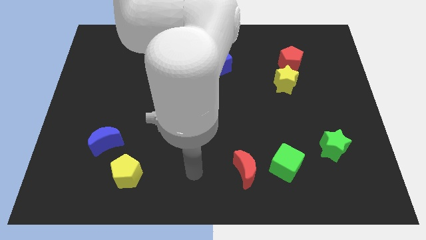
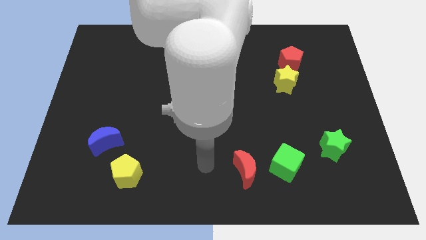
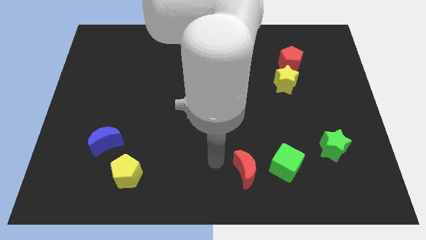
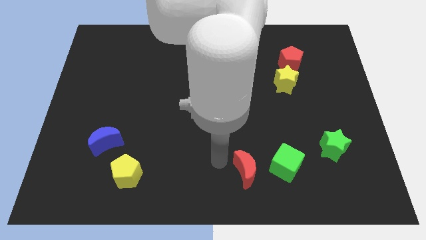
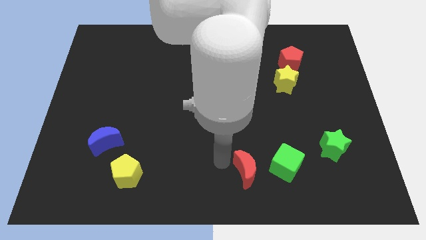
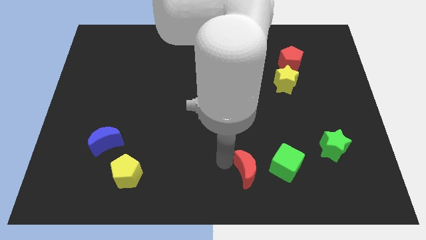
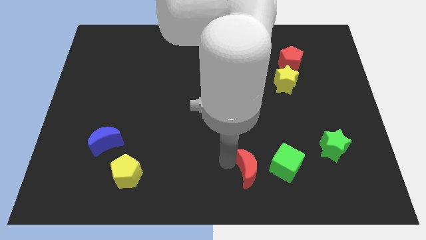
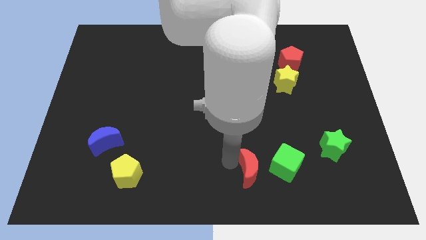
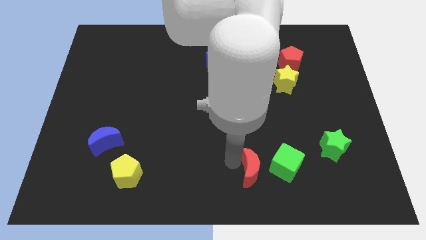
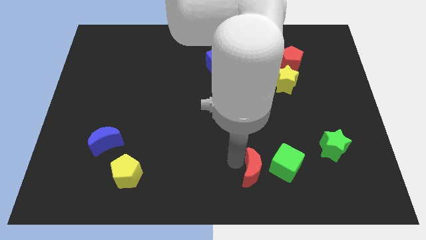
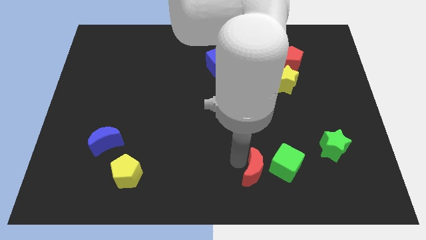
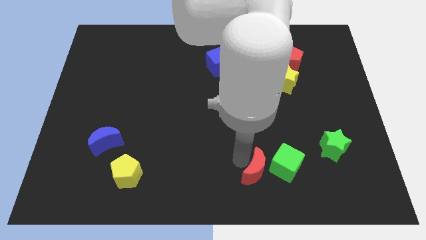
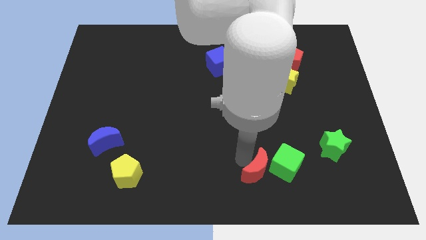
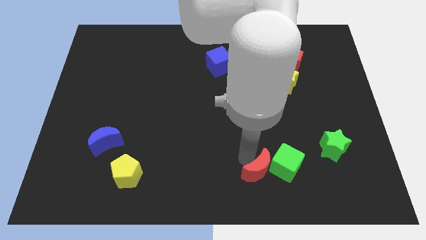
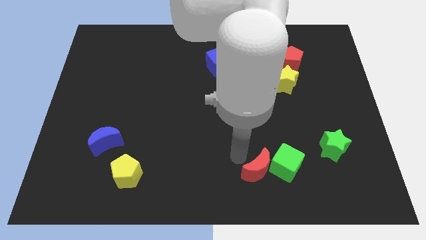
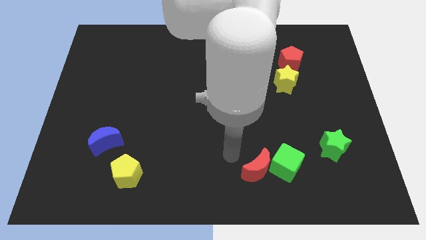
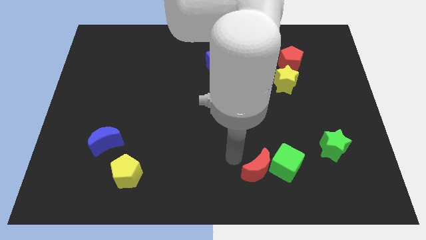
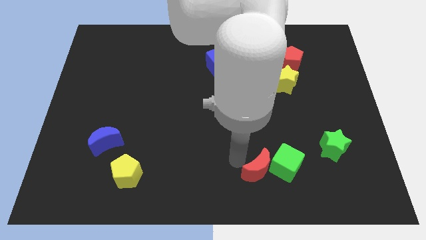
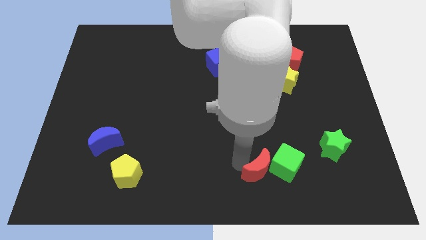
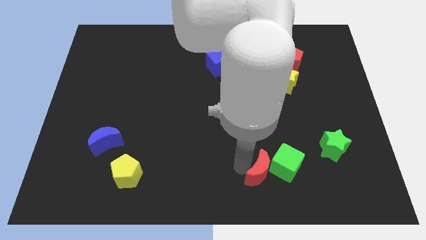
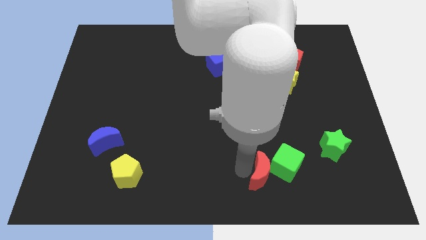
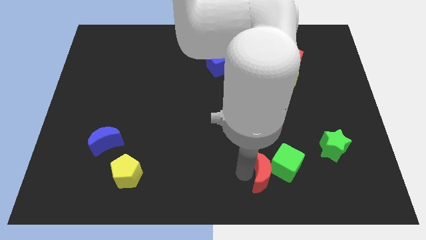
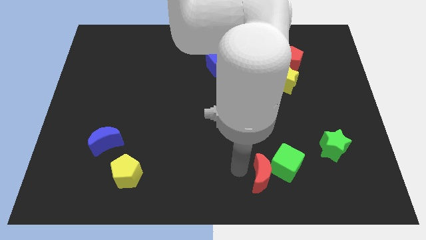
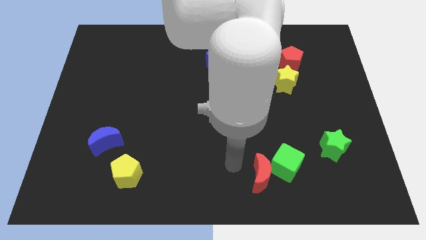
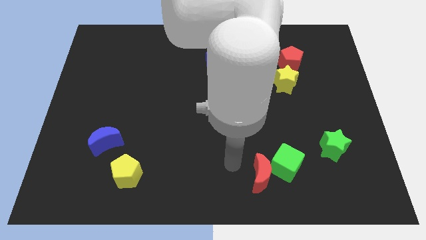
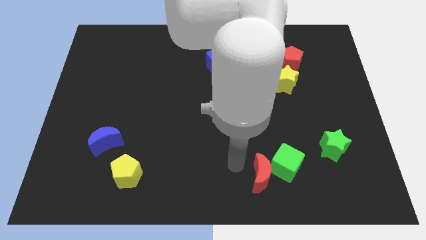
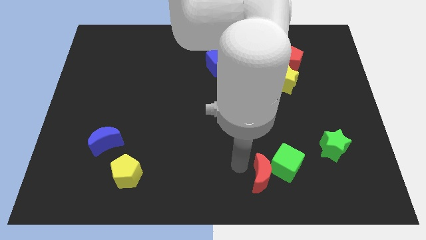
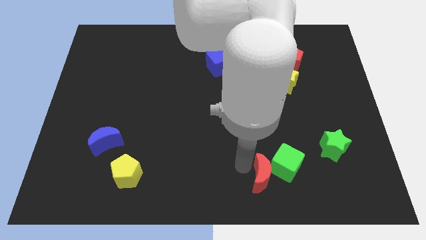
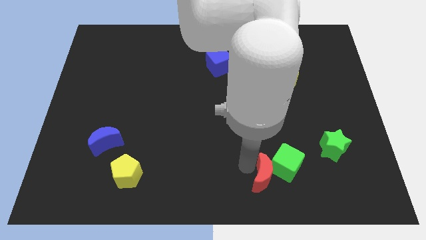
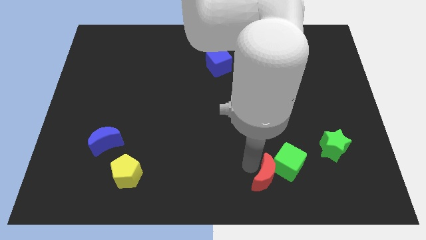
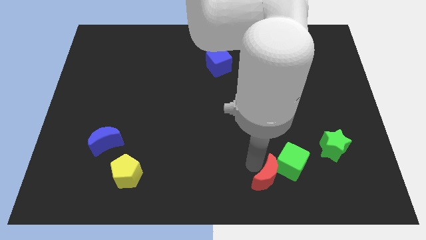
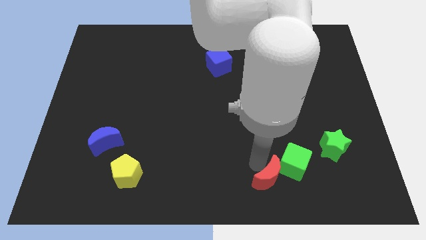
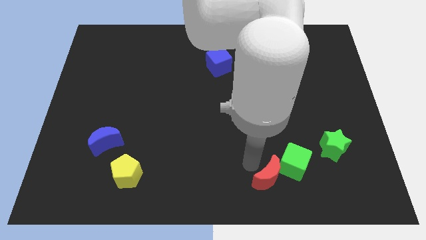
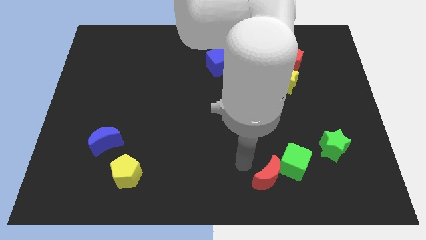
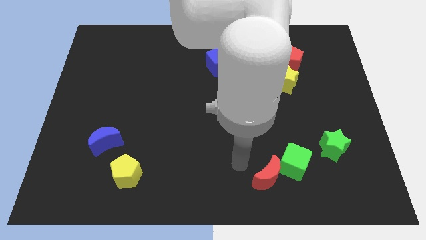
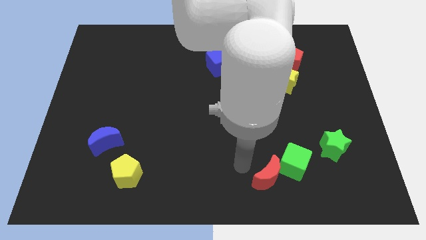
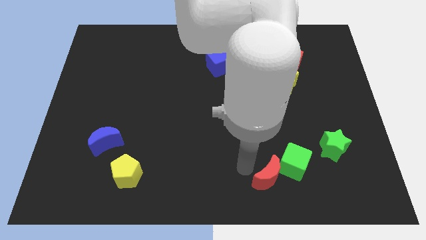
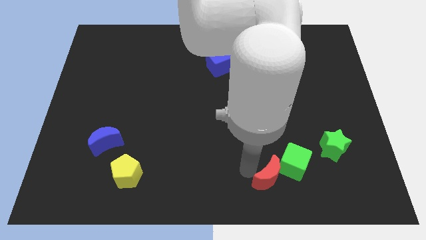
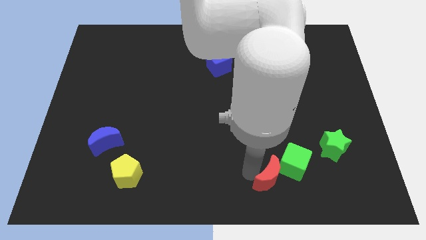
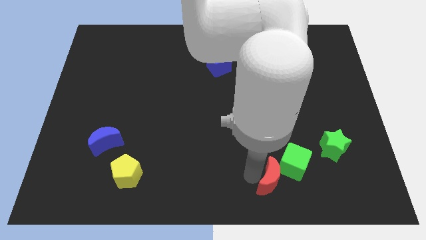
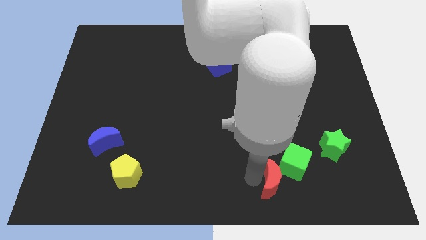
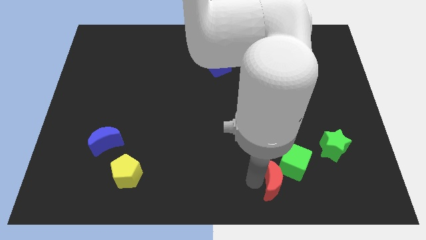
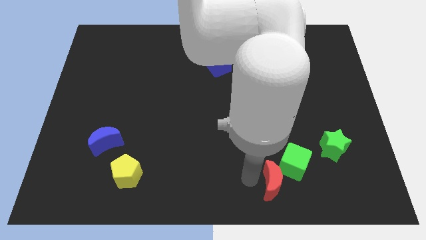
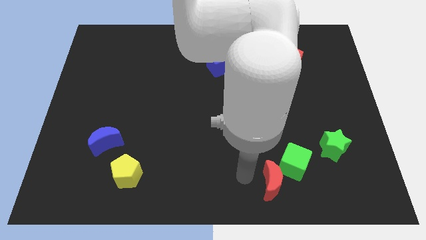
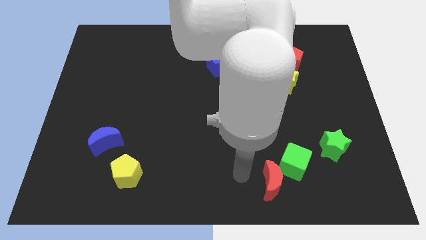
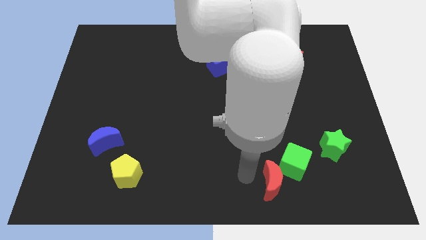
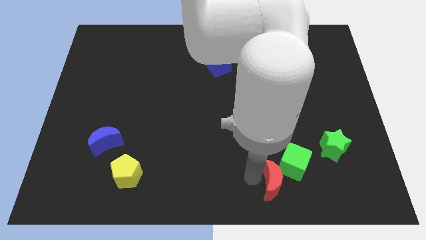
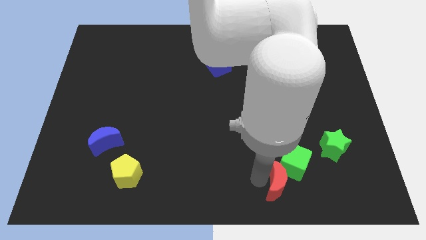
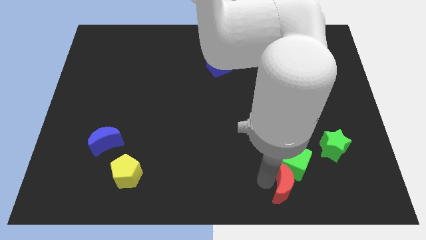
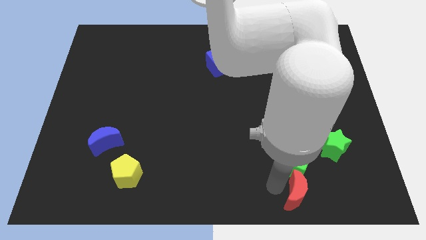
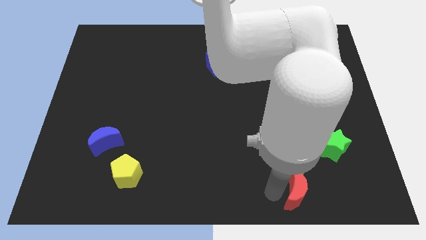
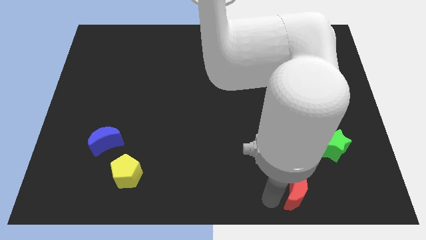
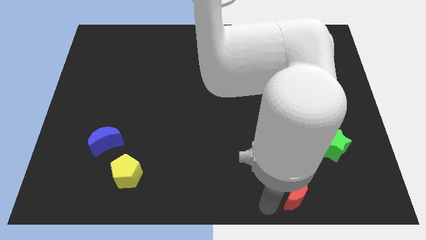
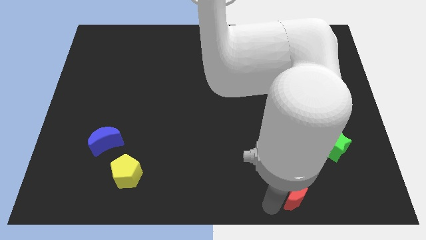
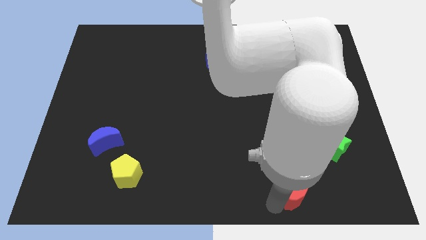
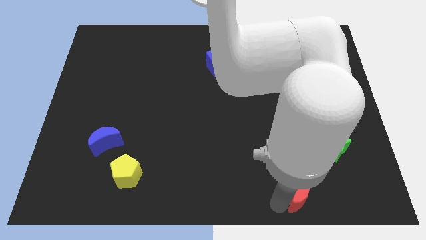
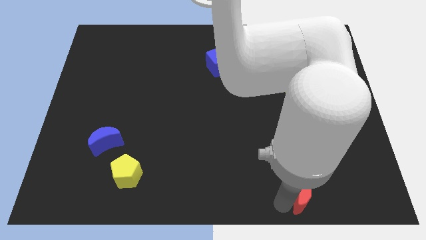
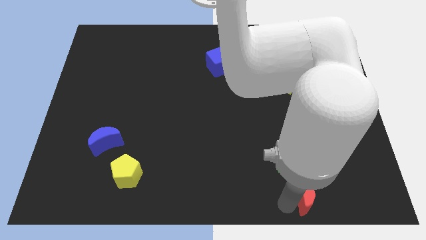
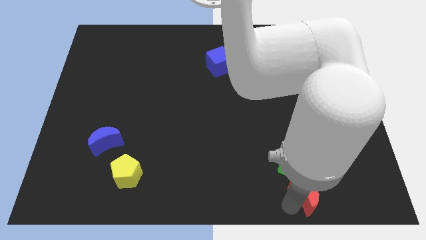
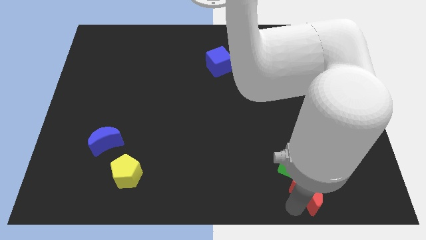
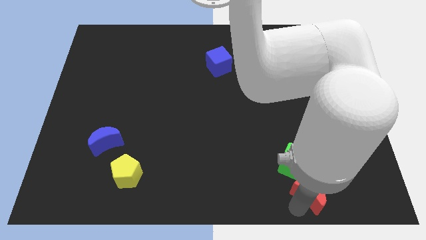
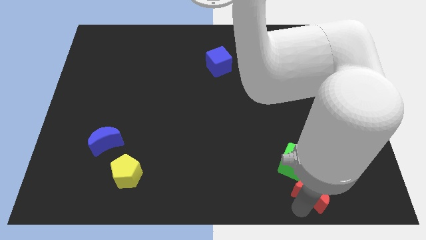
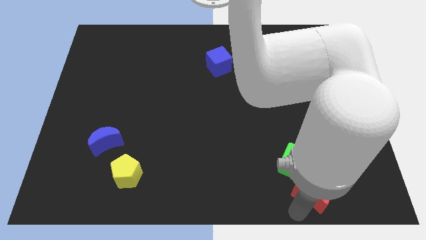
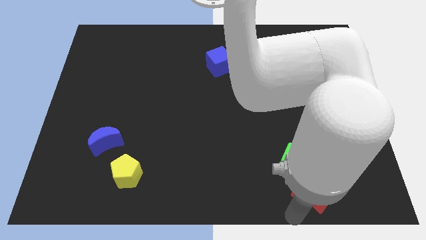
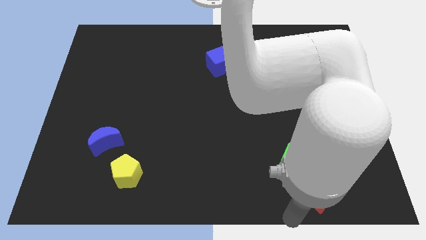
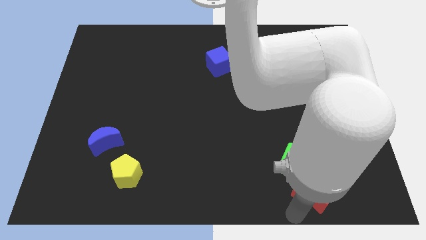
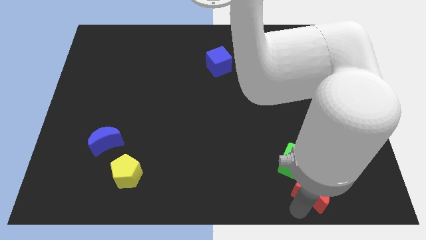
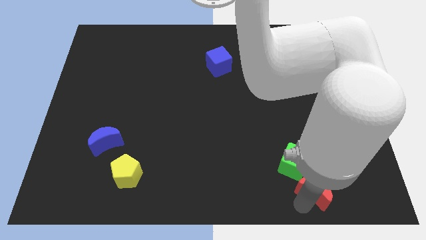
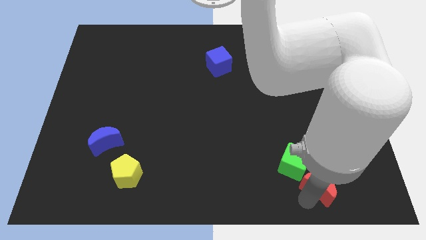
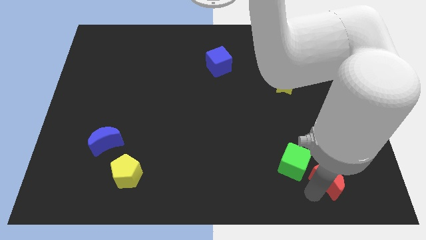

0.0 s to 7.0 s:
move the red moon just right of the green cube

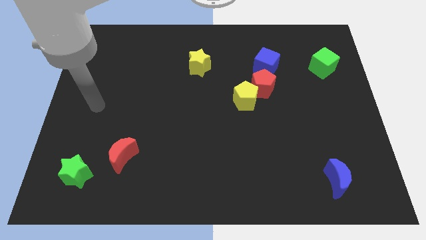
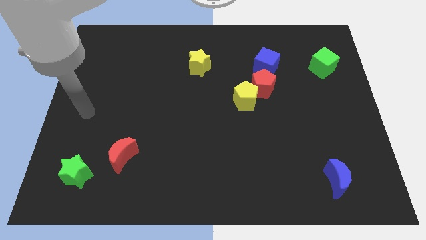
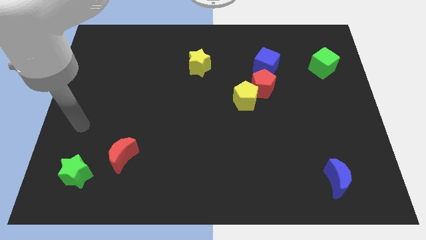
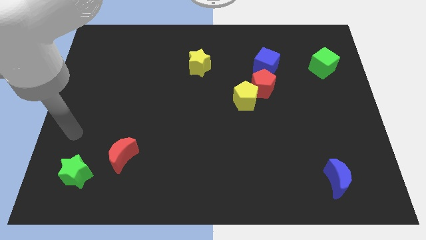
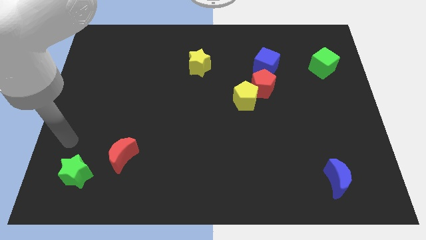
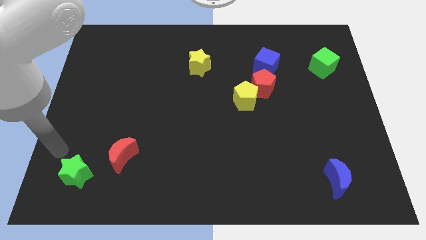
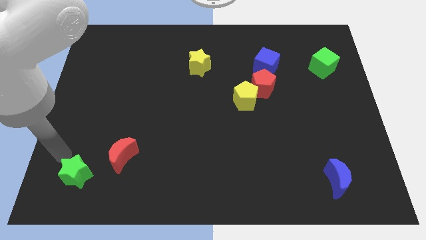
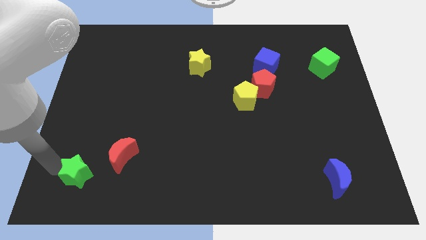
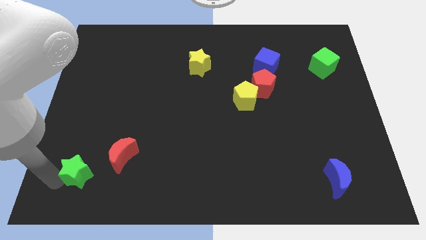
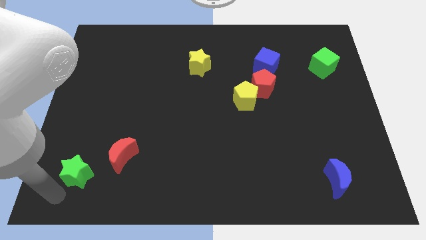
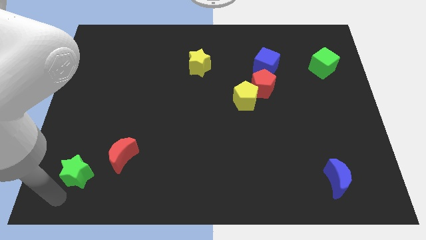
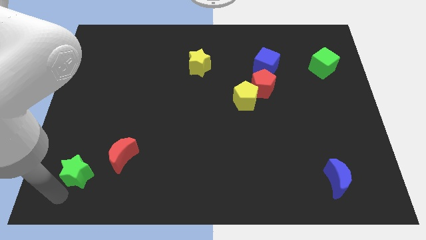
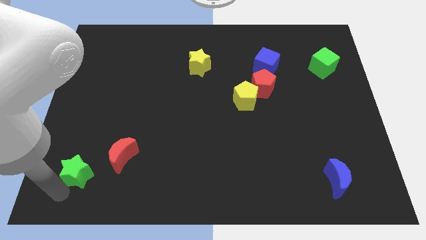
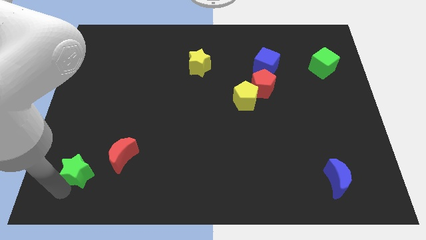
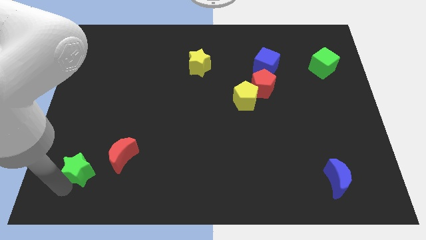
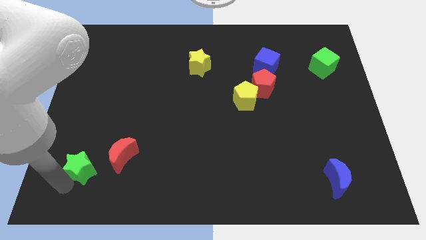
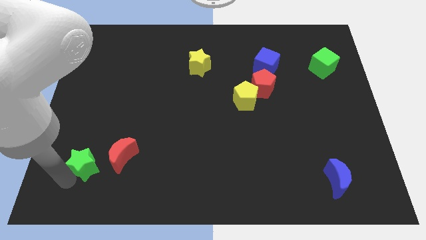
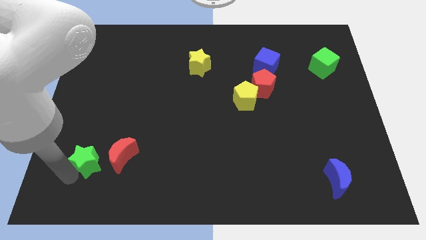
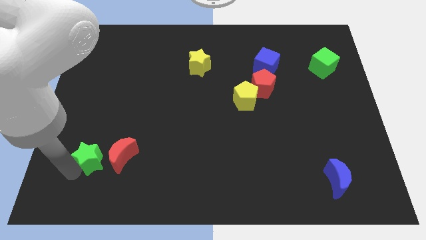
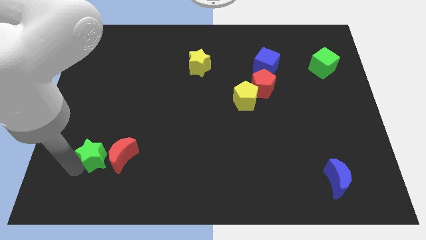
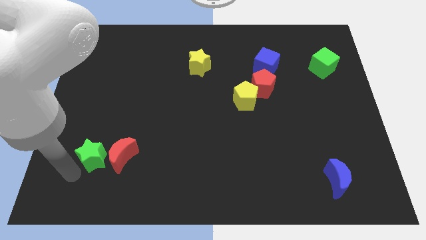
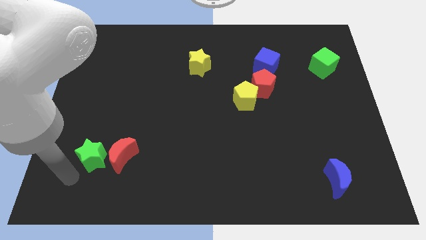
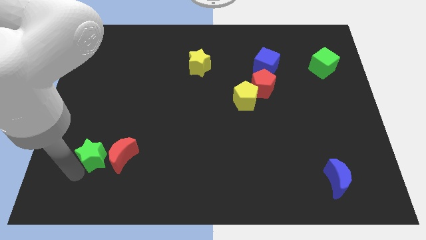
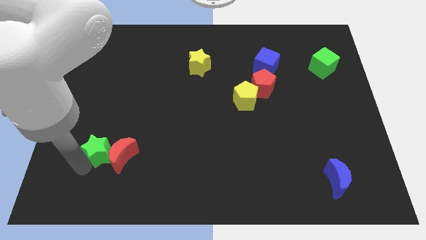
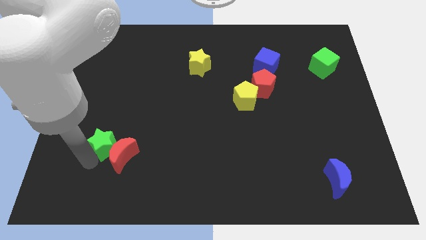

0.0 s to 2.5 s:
move the green star to the top of the red moon
